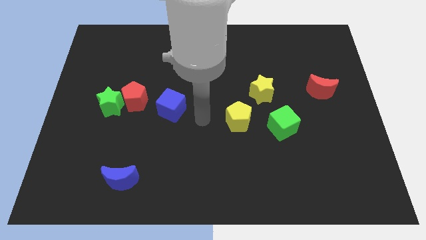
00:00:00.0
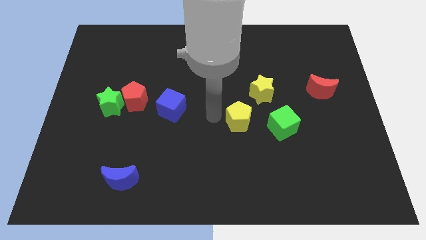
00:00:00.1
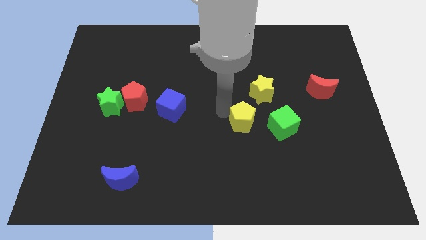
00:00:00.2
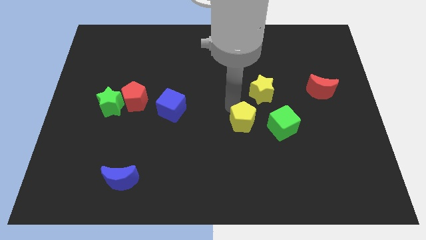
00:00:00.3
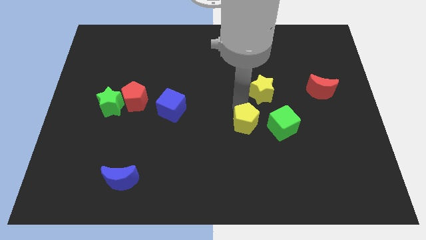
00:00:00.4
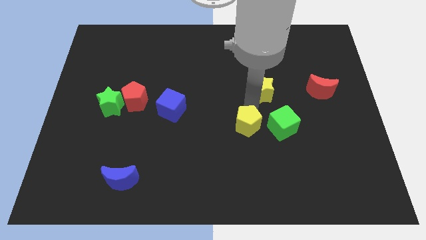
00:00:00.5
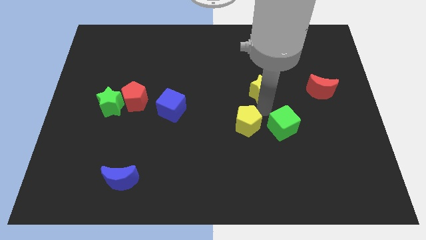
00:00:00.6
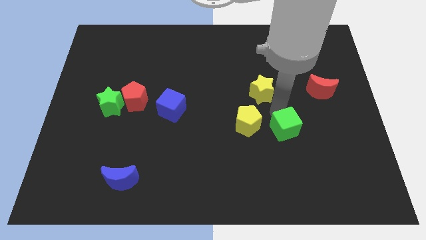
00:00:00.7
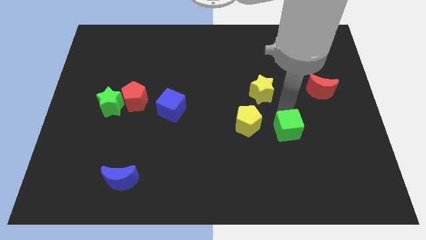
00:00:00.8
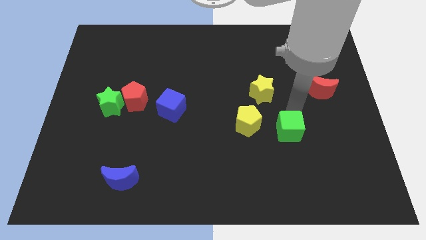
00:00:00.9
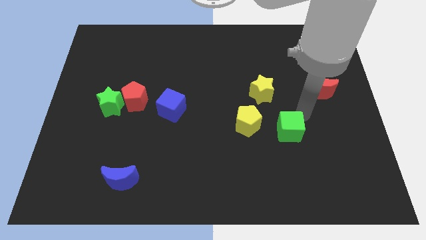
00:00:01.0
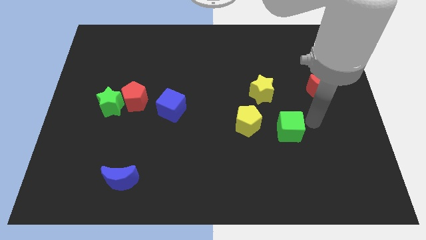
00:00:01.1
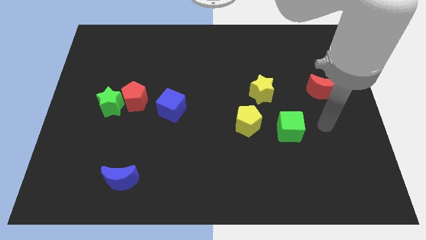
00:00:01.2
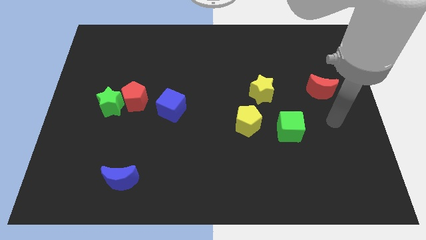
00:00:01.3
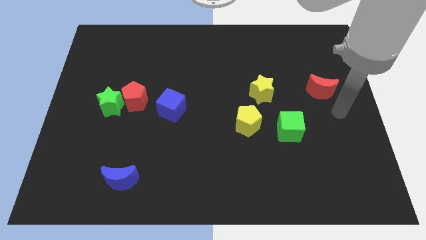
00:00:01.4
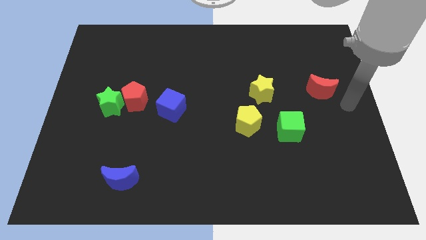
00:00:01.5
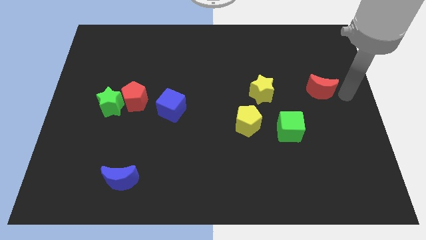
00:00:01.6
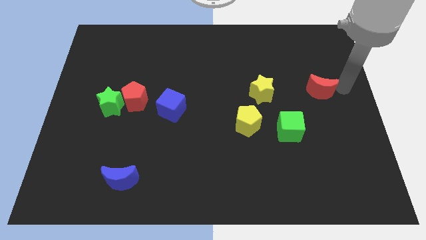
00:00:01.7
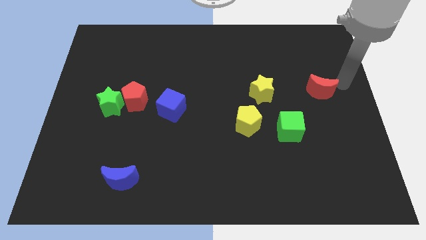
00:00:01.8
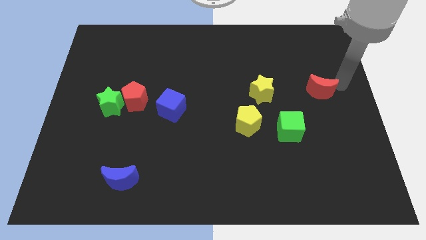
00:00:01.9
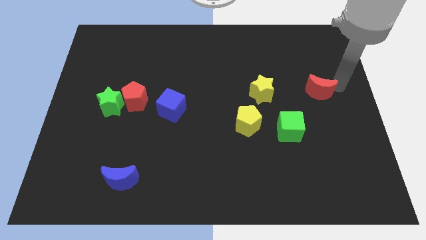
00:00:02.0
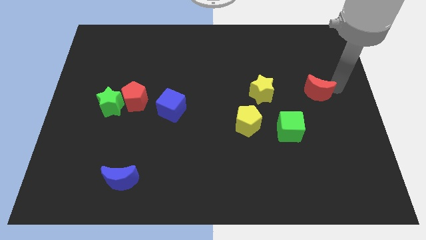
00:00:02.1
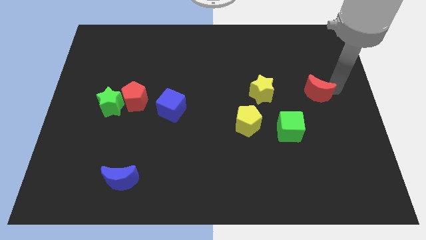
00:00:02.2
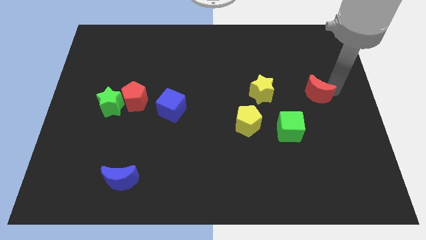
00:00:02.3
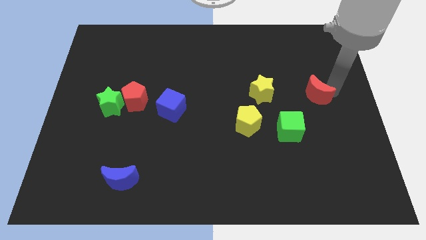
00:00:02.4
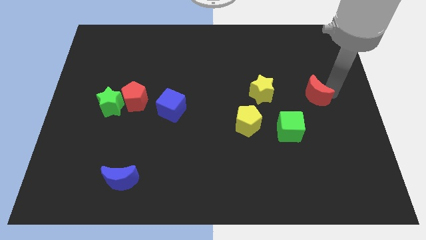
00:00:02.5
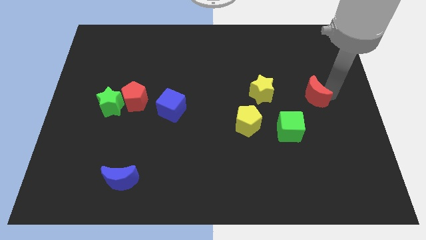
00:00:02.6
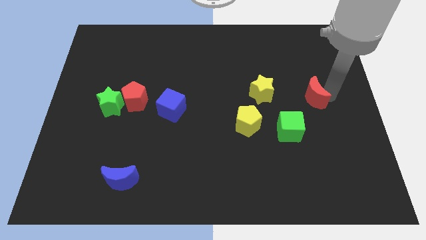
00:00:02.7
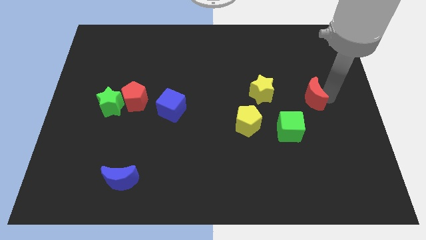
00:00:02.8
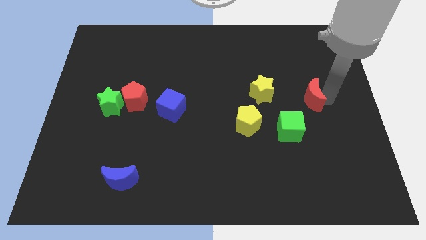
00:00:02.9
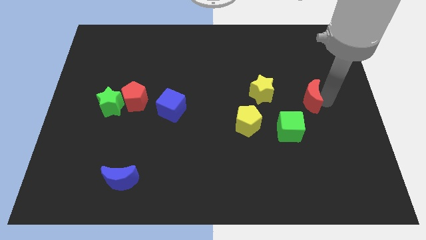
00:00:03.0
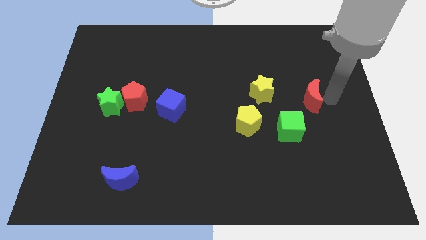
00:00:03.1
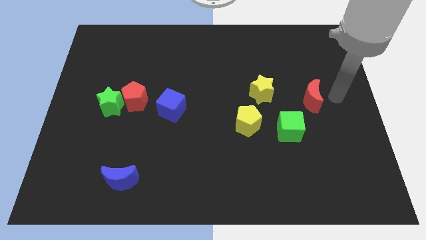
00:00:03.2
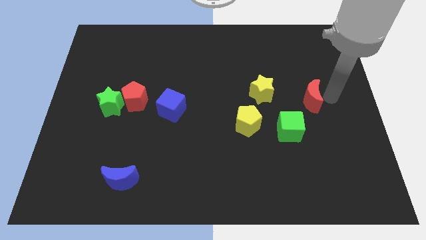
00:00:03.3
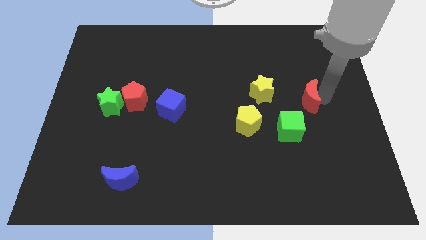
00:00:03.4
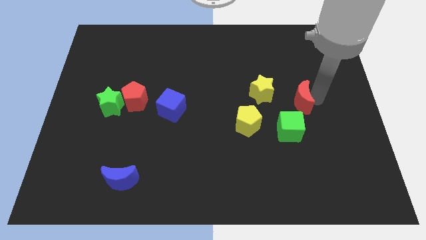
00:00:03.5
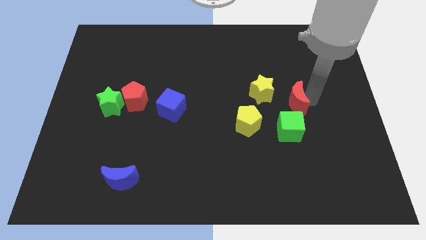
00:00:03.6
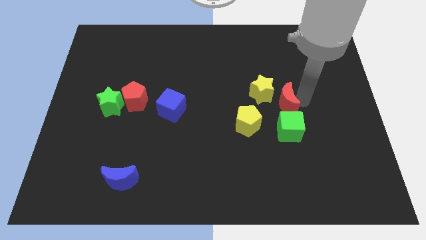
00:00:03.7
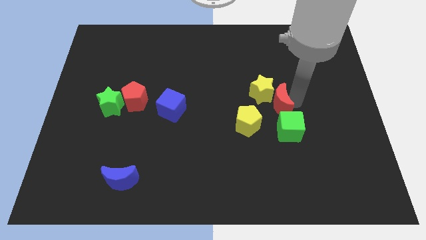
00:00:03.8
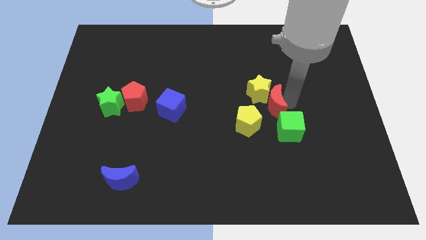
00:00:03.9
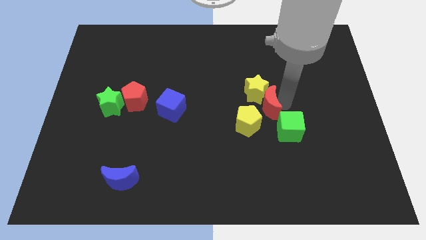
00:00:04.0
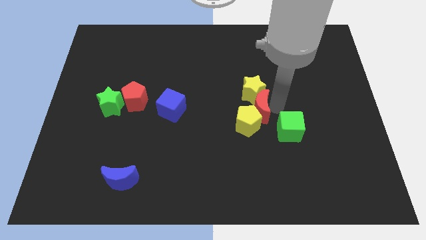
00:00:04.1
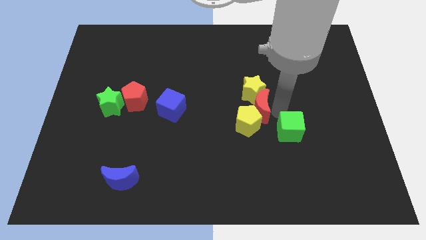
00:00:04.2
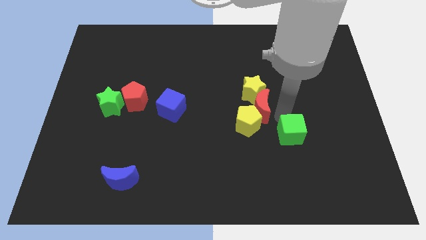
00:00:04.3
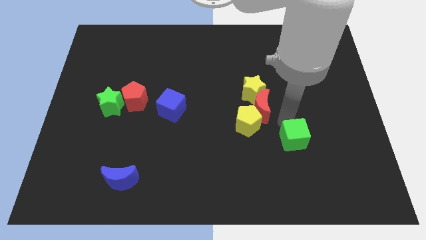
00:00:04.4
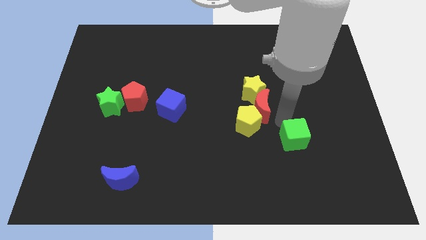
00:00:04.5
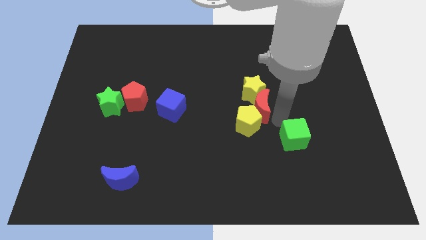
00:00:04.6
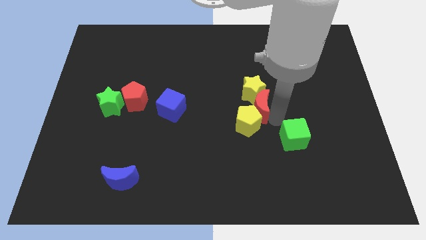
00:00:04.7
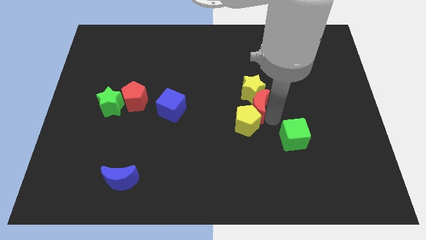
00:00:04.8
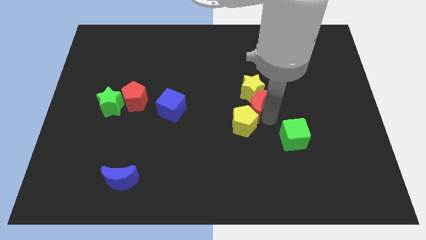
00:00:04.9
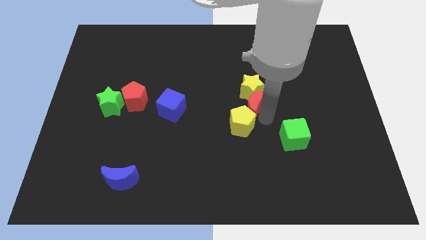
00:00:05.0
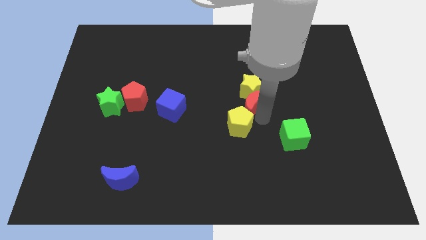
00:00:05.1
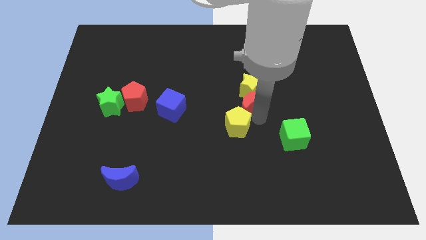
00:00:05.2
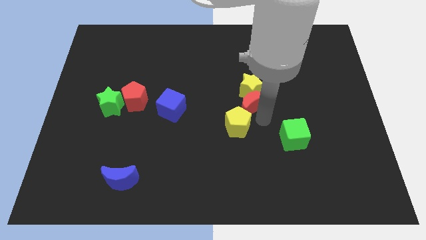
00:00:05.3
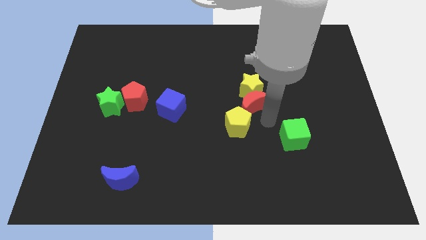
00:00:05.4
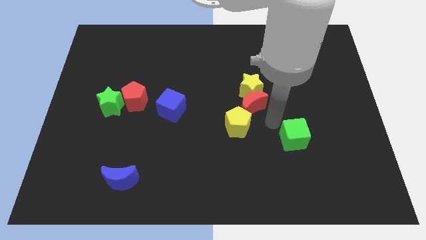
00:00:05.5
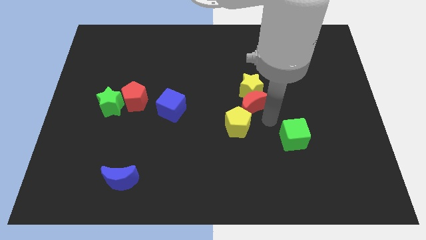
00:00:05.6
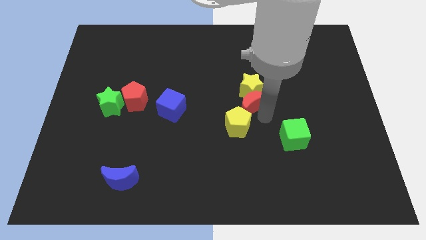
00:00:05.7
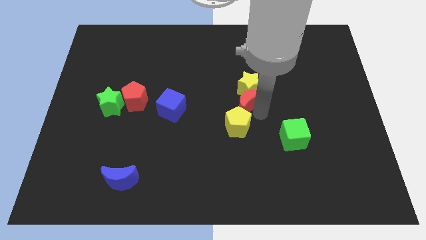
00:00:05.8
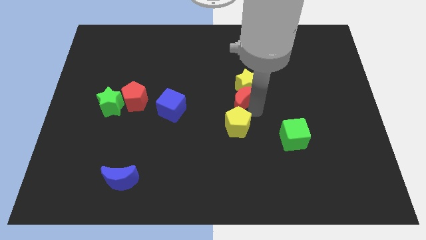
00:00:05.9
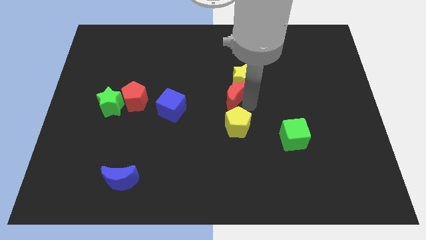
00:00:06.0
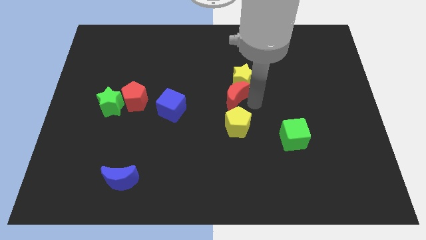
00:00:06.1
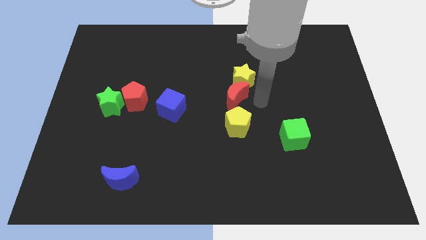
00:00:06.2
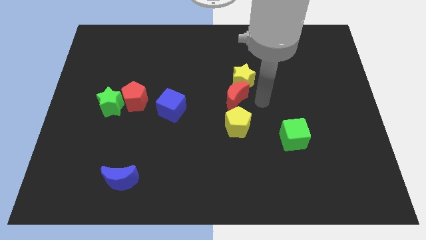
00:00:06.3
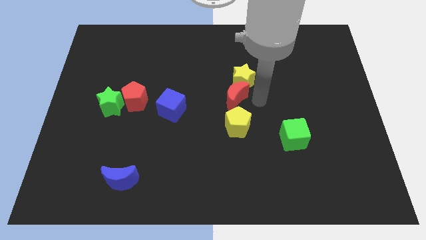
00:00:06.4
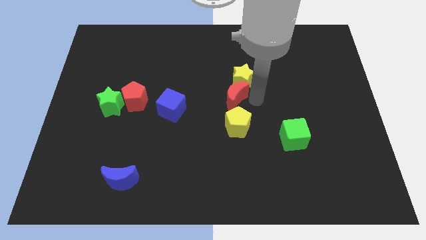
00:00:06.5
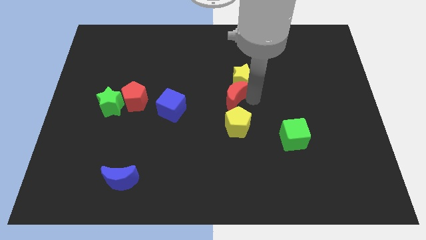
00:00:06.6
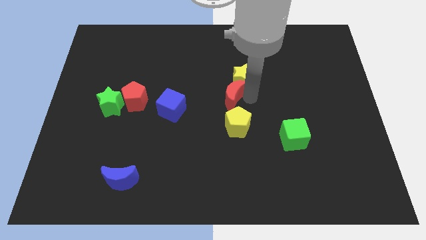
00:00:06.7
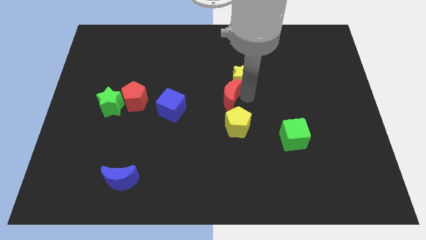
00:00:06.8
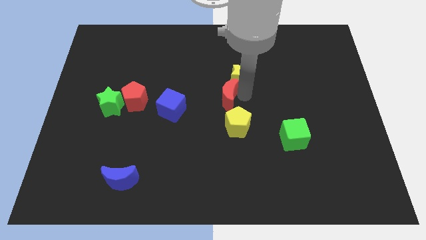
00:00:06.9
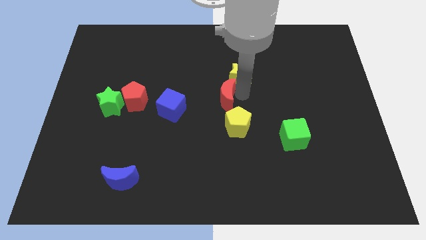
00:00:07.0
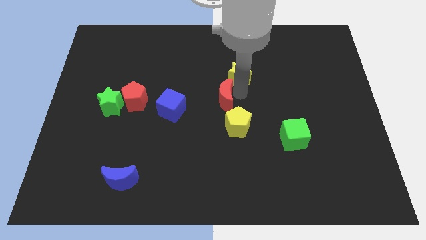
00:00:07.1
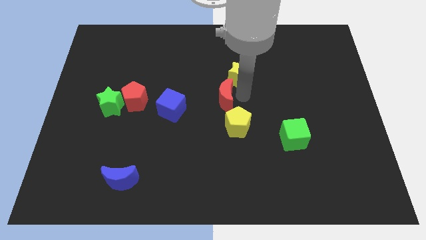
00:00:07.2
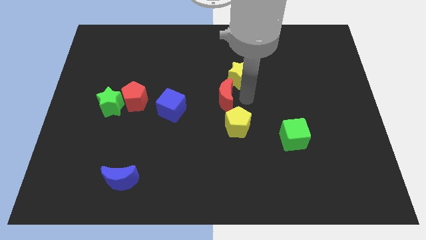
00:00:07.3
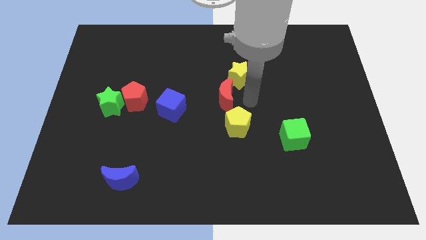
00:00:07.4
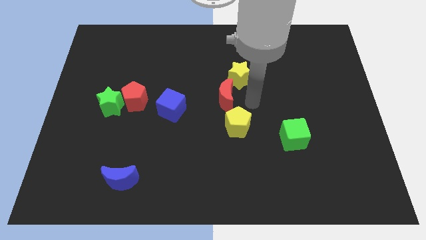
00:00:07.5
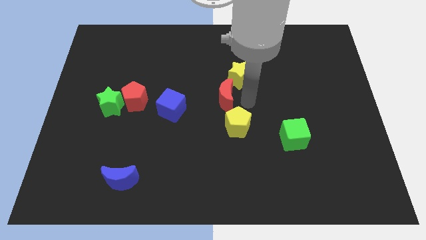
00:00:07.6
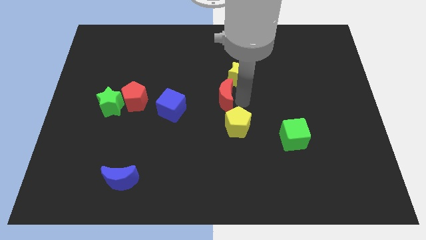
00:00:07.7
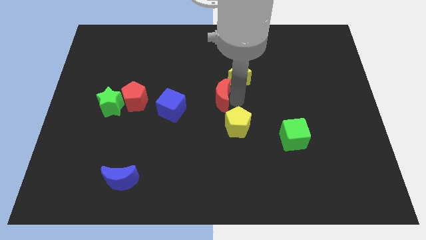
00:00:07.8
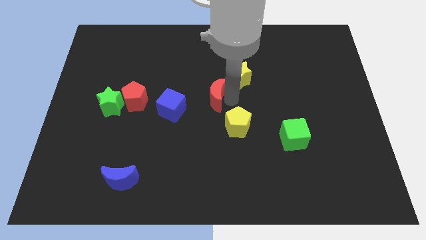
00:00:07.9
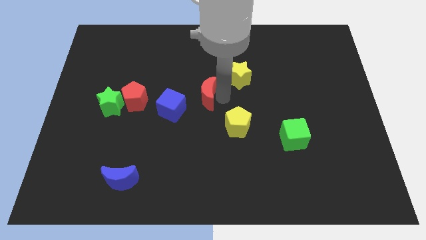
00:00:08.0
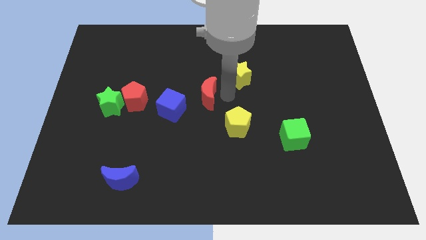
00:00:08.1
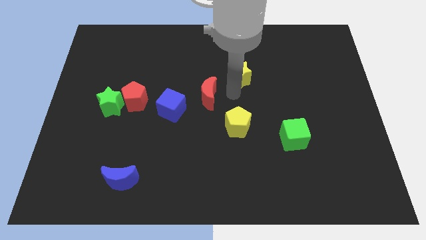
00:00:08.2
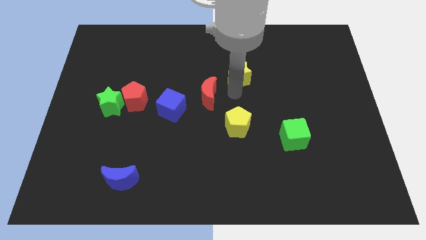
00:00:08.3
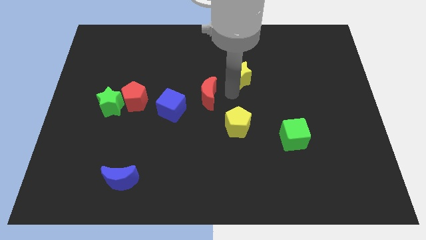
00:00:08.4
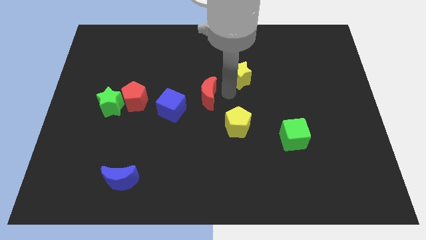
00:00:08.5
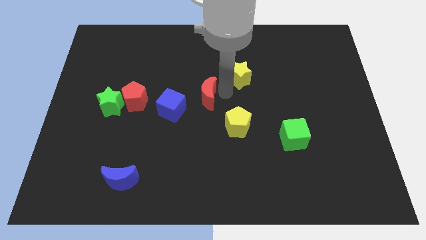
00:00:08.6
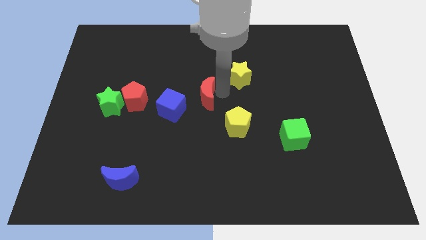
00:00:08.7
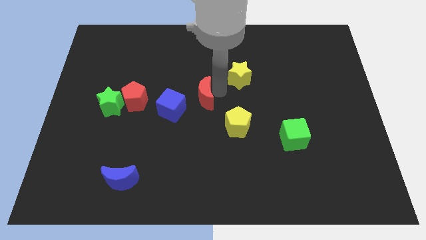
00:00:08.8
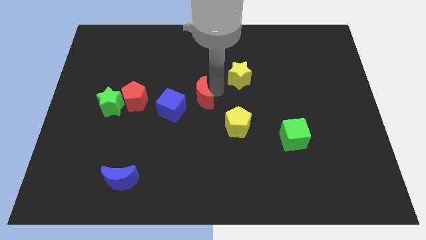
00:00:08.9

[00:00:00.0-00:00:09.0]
push the red moon just right of the red pentagon
